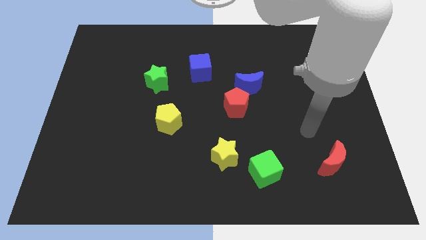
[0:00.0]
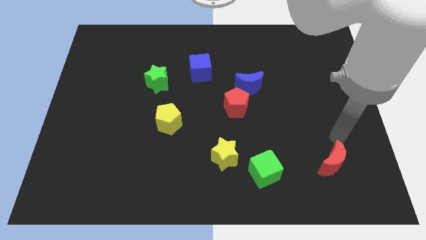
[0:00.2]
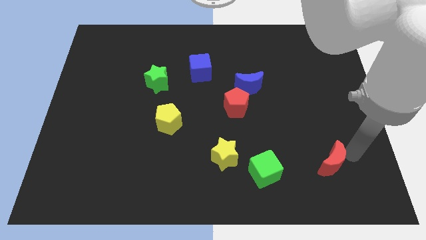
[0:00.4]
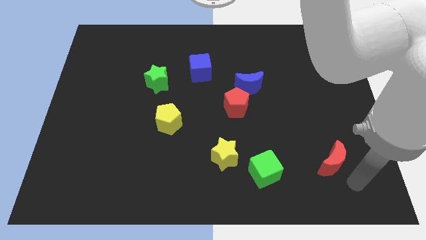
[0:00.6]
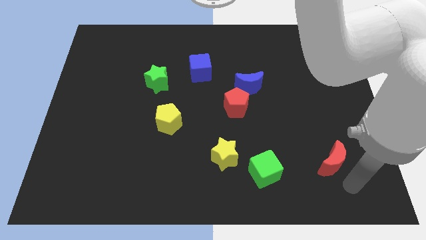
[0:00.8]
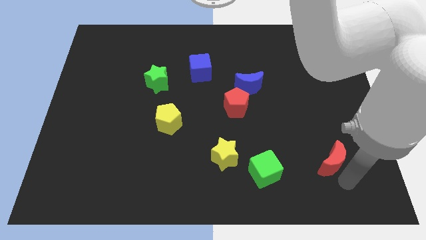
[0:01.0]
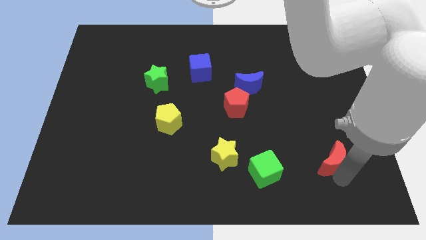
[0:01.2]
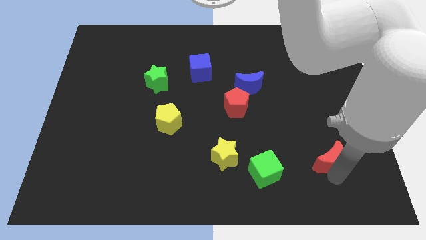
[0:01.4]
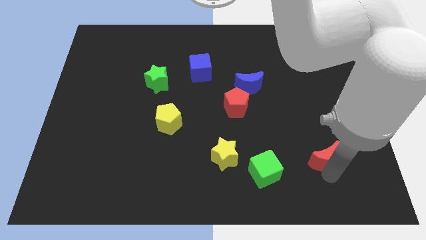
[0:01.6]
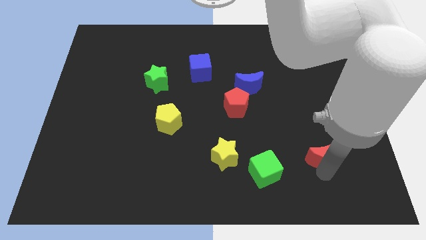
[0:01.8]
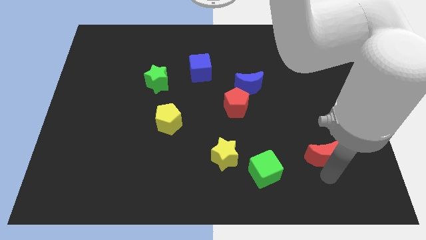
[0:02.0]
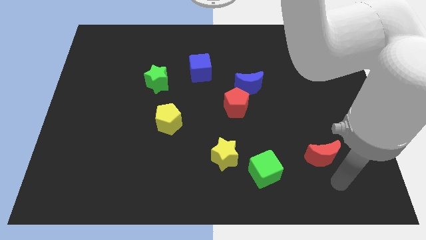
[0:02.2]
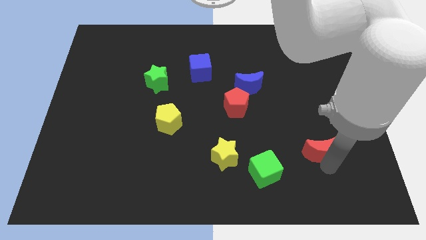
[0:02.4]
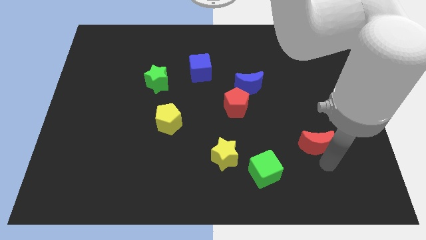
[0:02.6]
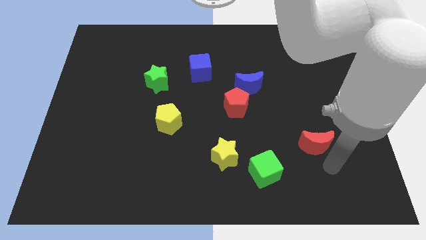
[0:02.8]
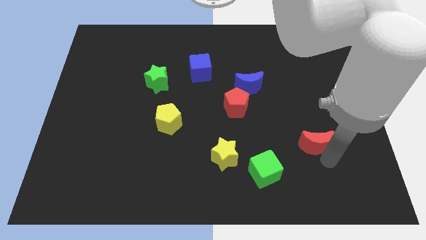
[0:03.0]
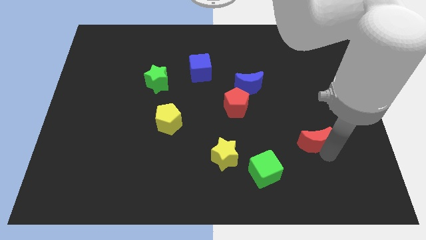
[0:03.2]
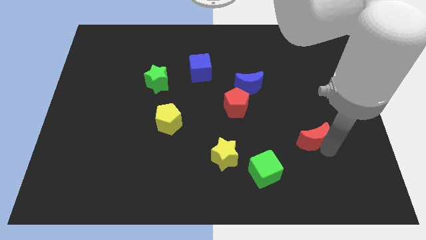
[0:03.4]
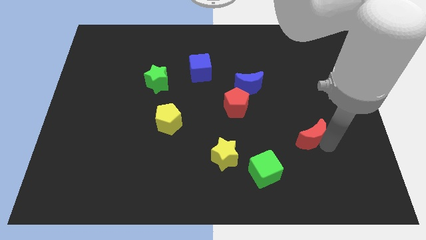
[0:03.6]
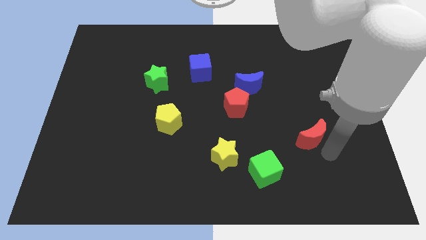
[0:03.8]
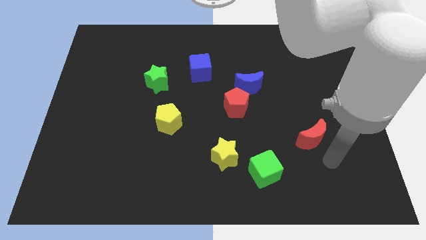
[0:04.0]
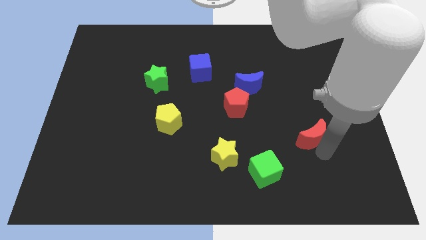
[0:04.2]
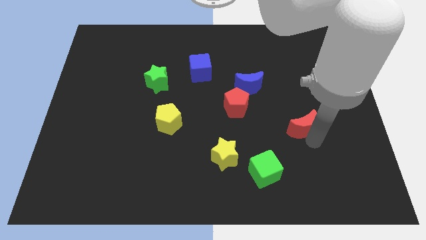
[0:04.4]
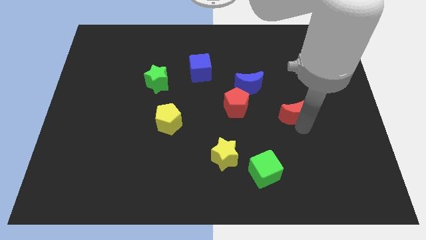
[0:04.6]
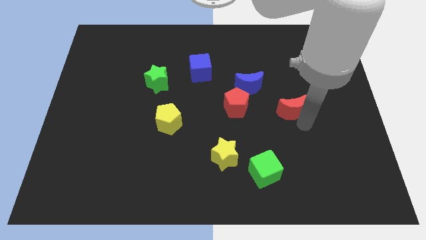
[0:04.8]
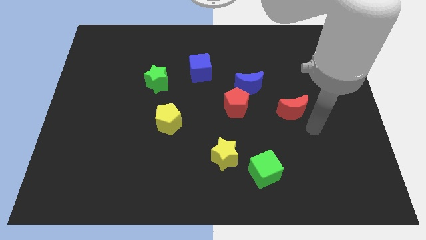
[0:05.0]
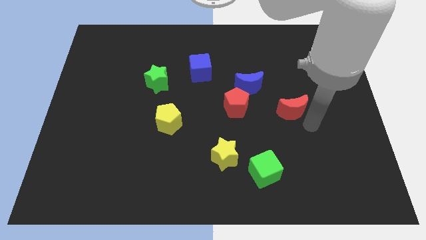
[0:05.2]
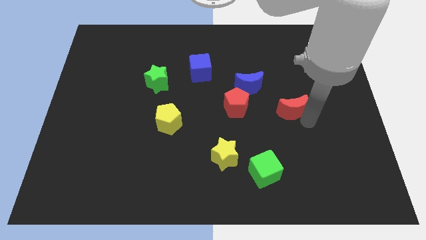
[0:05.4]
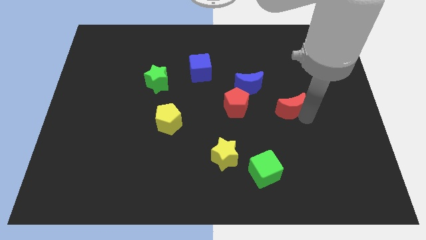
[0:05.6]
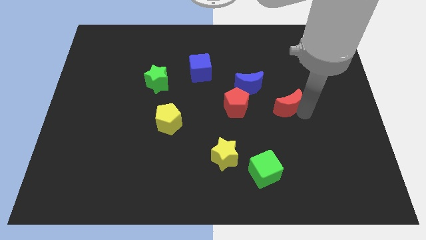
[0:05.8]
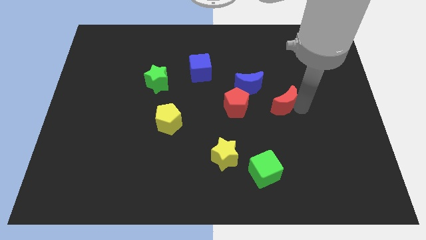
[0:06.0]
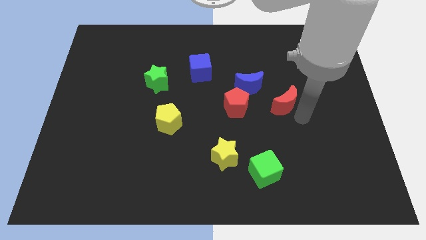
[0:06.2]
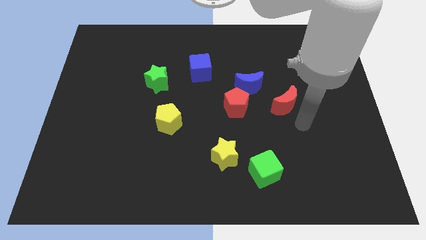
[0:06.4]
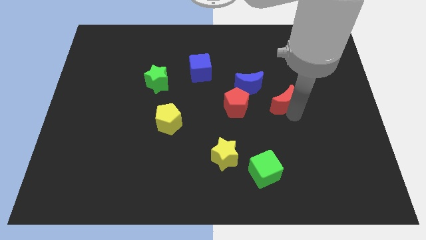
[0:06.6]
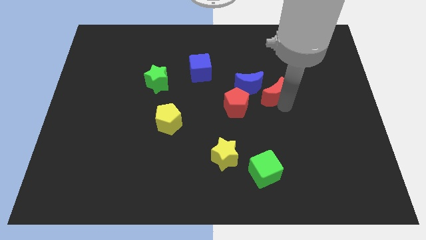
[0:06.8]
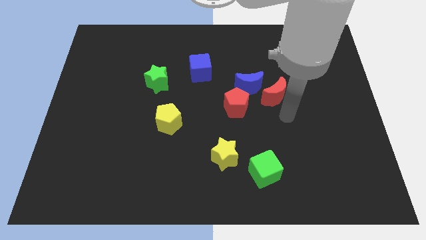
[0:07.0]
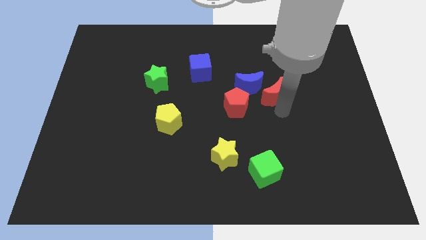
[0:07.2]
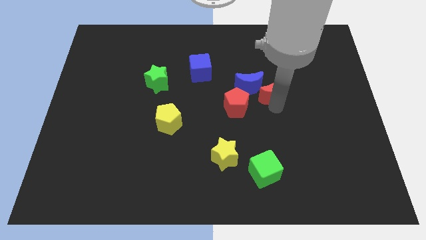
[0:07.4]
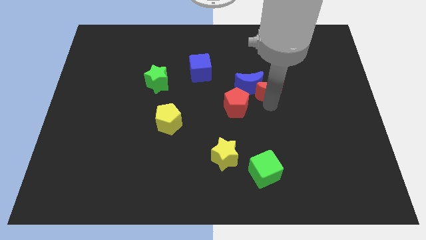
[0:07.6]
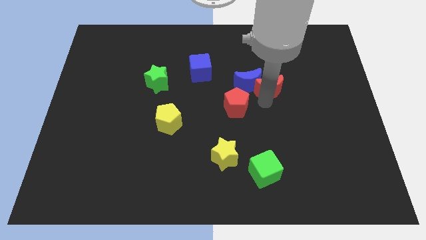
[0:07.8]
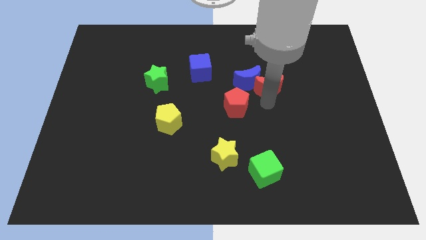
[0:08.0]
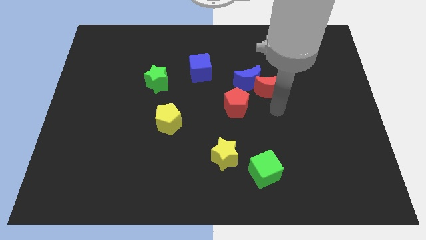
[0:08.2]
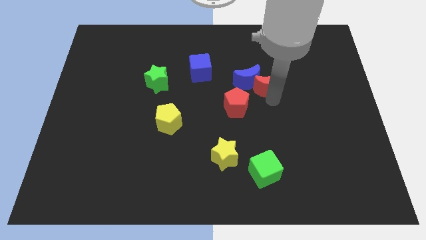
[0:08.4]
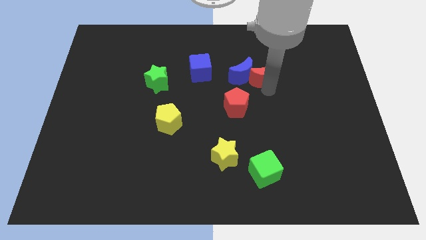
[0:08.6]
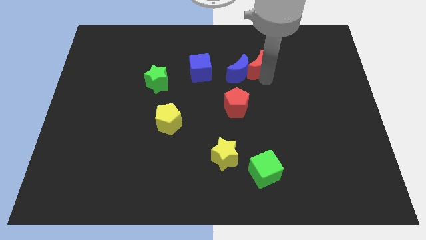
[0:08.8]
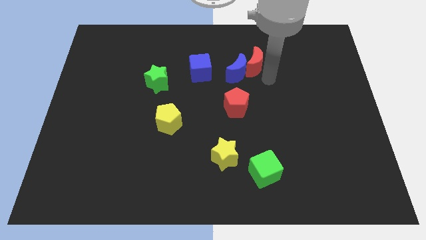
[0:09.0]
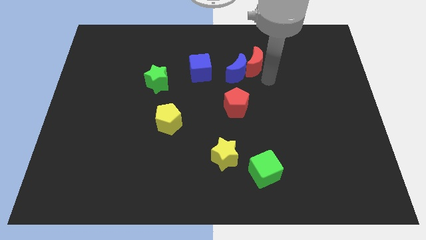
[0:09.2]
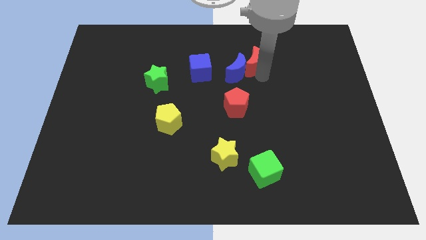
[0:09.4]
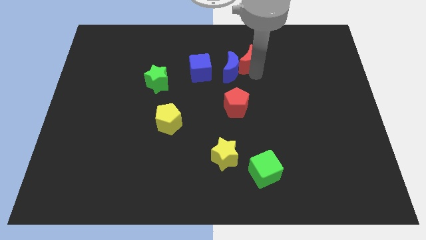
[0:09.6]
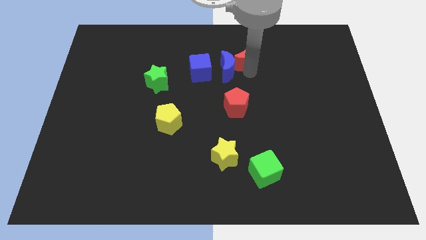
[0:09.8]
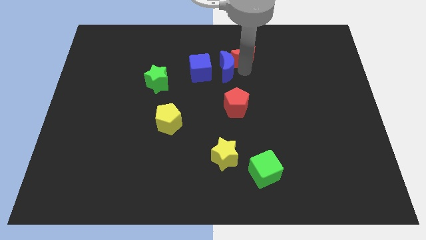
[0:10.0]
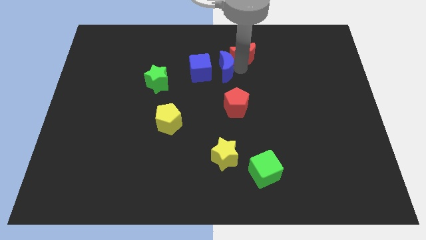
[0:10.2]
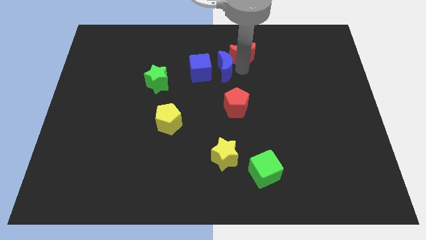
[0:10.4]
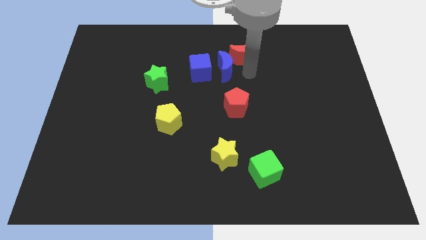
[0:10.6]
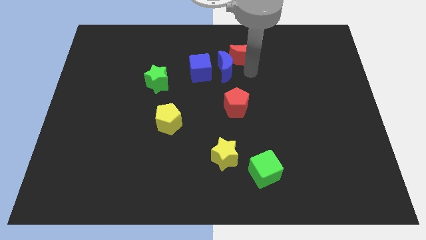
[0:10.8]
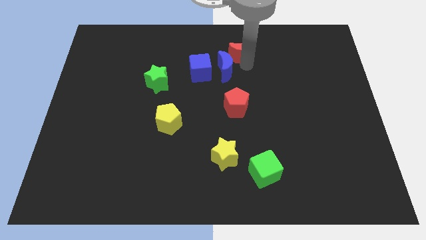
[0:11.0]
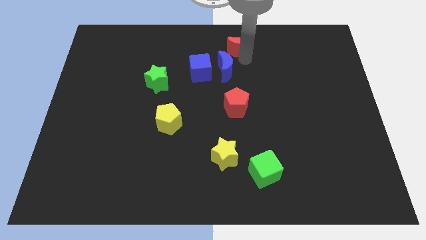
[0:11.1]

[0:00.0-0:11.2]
slide the red moon to the top side

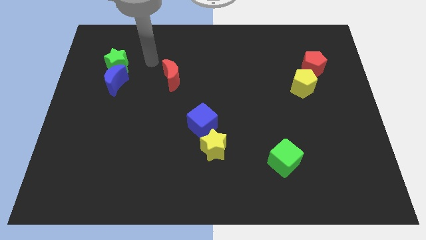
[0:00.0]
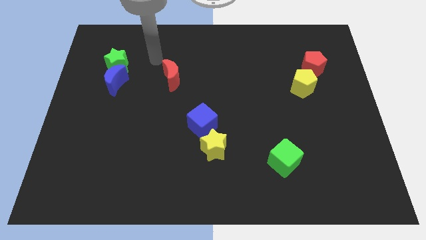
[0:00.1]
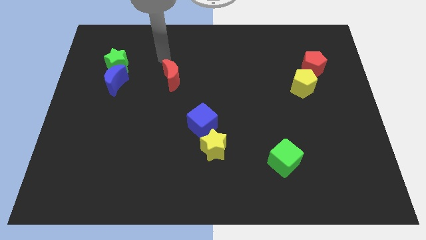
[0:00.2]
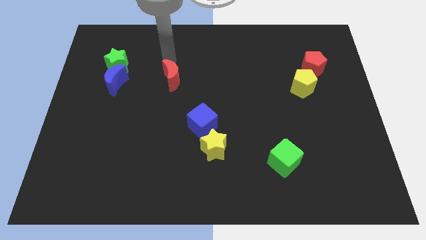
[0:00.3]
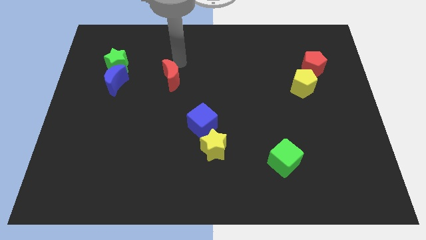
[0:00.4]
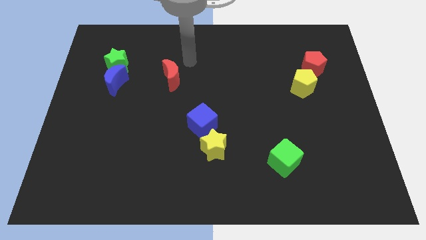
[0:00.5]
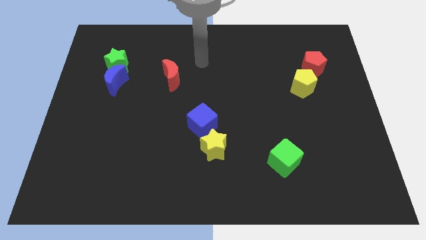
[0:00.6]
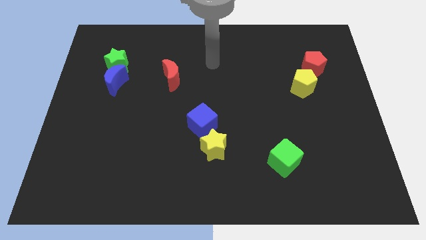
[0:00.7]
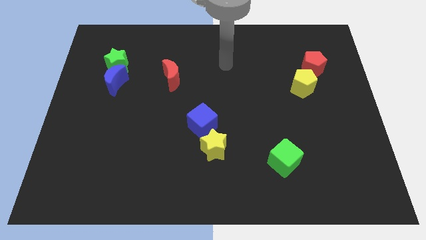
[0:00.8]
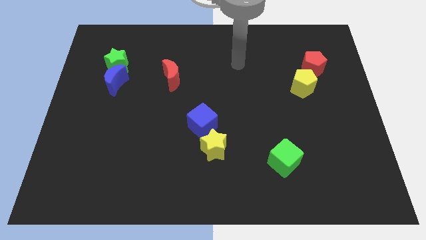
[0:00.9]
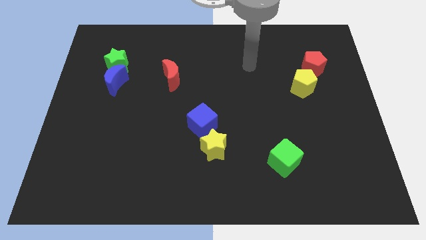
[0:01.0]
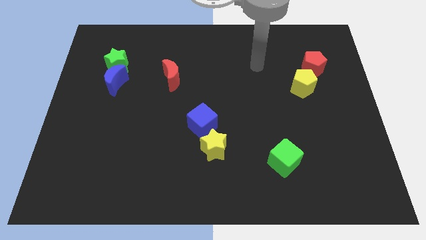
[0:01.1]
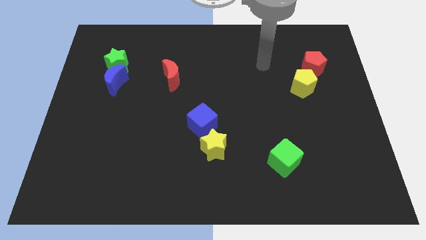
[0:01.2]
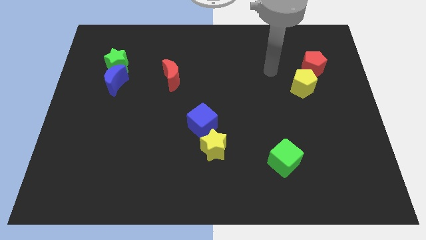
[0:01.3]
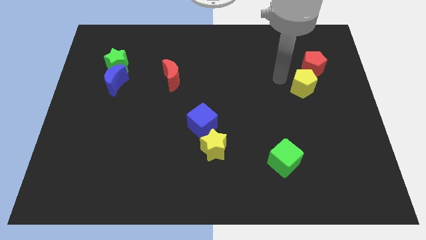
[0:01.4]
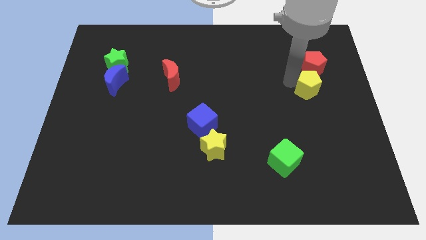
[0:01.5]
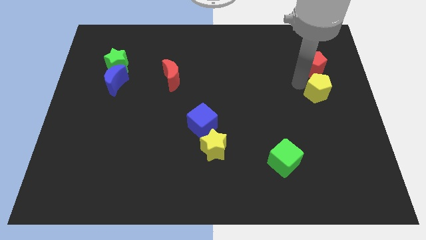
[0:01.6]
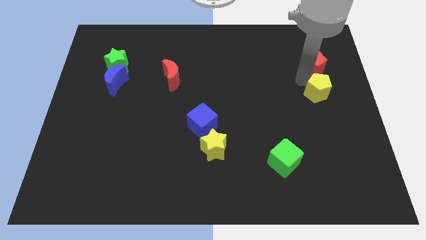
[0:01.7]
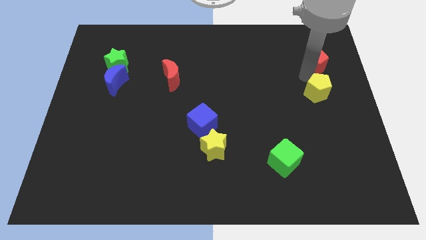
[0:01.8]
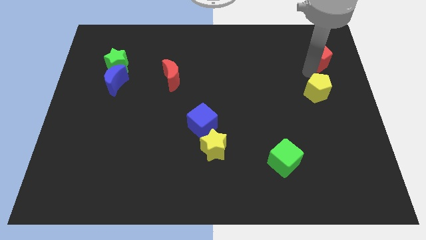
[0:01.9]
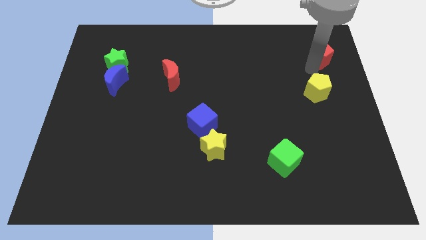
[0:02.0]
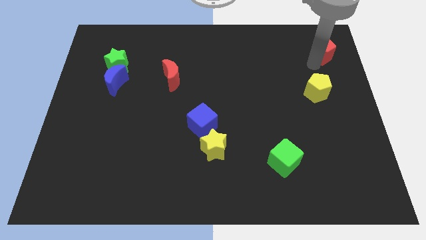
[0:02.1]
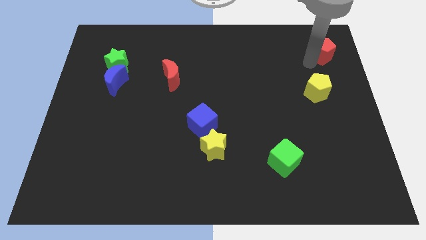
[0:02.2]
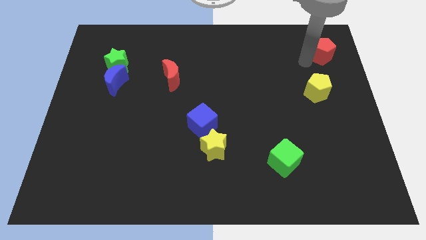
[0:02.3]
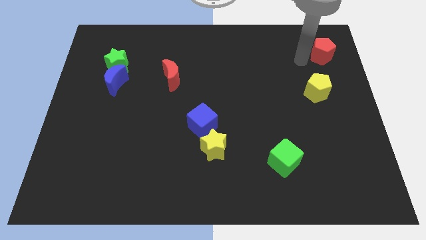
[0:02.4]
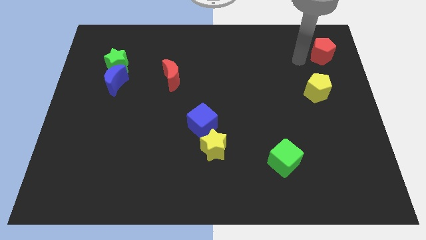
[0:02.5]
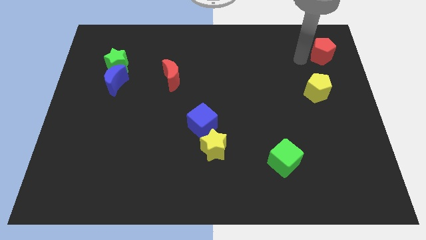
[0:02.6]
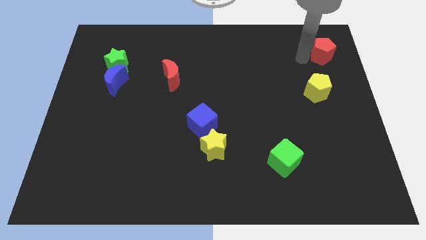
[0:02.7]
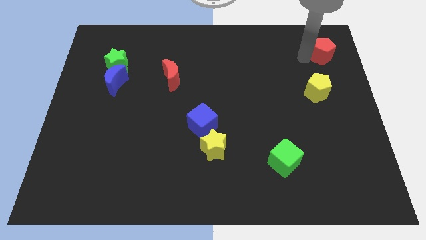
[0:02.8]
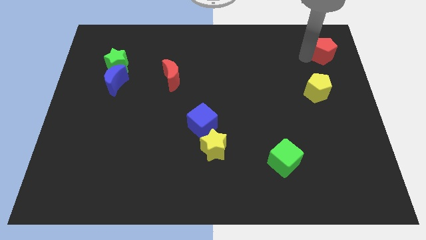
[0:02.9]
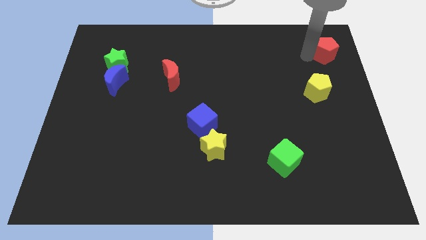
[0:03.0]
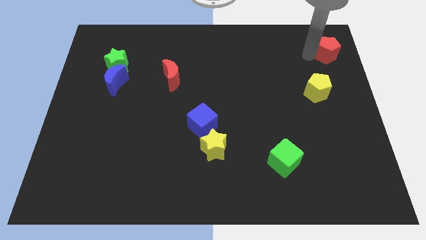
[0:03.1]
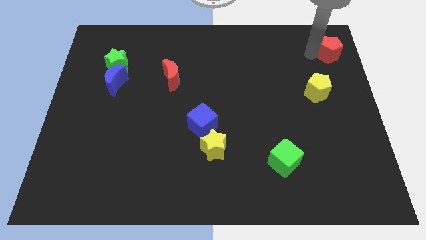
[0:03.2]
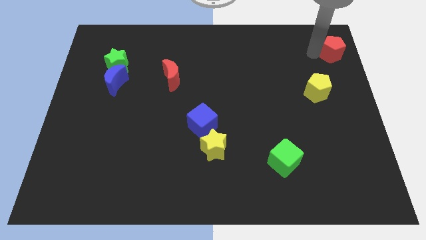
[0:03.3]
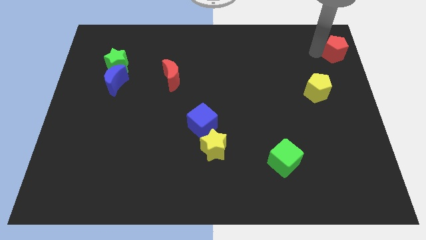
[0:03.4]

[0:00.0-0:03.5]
move the red pentagon to the top right of the board
